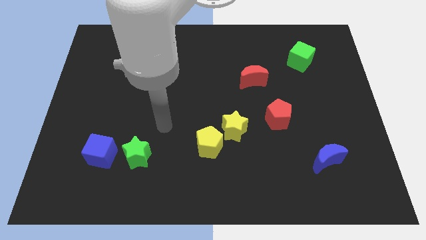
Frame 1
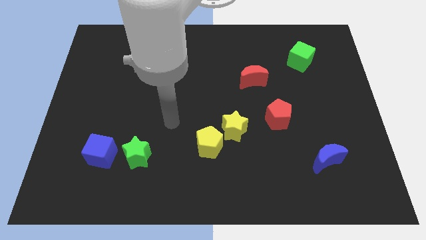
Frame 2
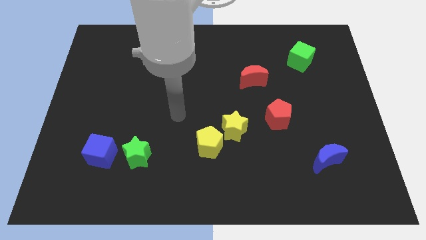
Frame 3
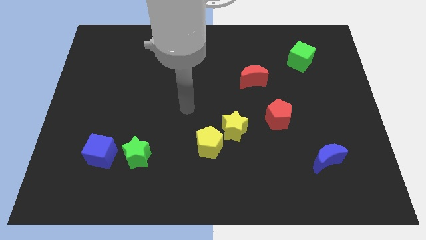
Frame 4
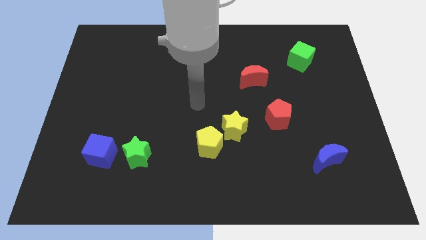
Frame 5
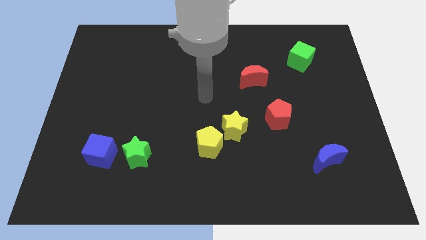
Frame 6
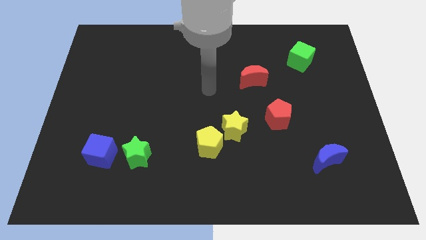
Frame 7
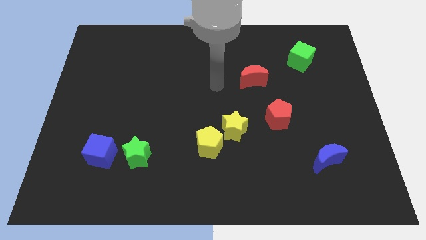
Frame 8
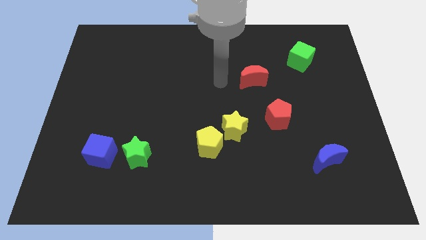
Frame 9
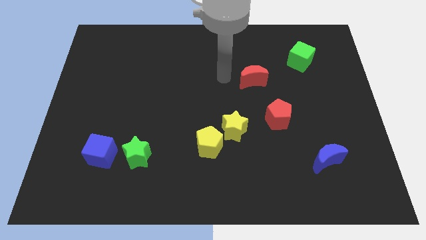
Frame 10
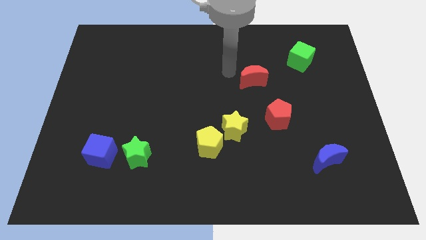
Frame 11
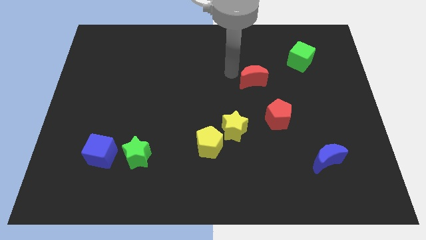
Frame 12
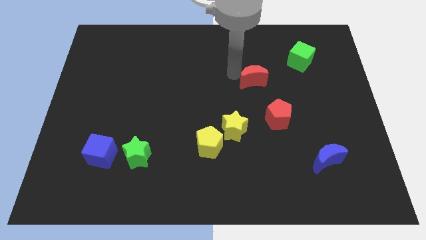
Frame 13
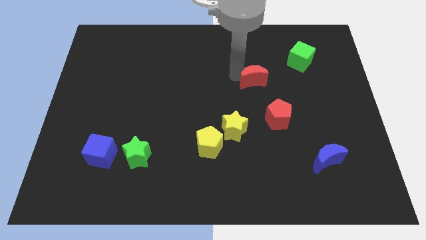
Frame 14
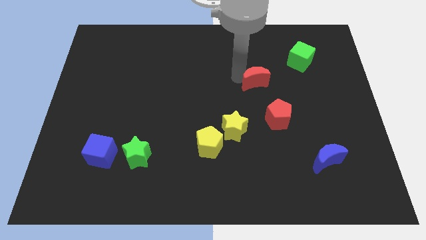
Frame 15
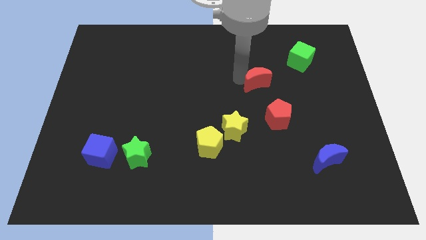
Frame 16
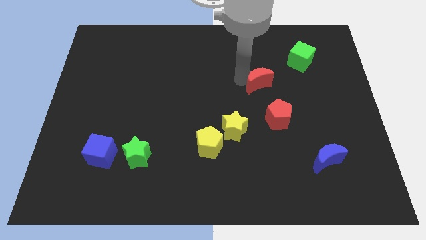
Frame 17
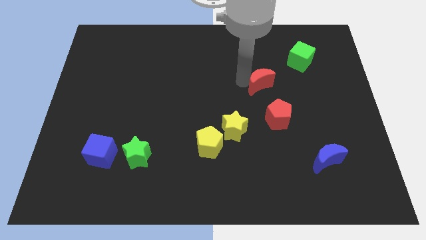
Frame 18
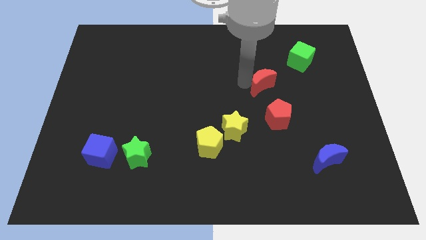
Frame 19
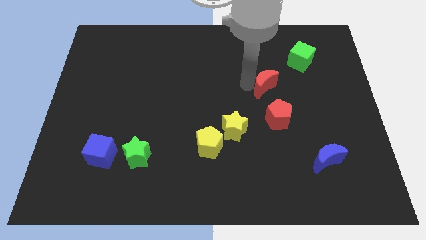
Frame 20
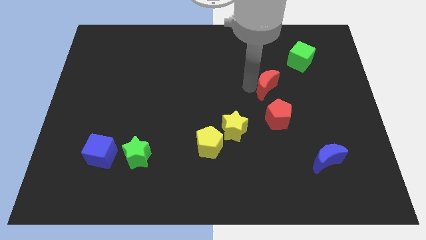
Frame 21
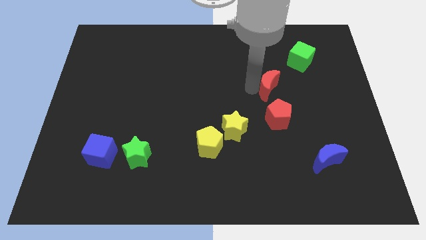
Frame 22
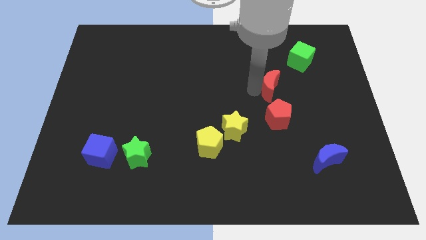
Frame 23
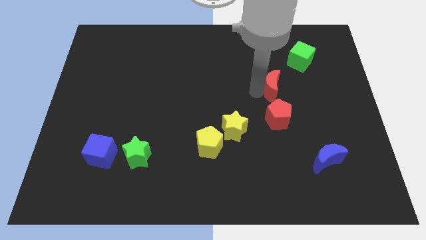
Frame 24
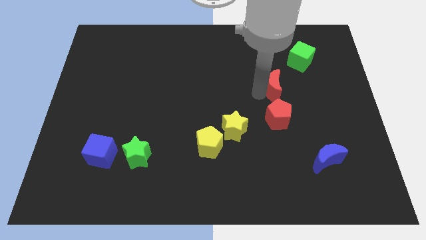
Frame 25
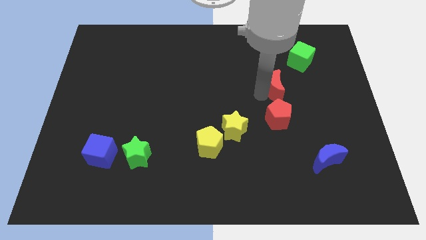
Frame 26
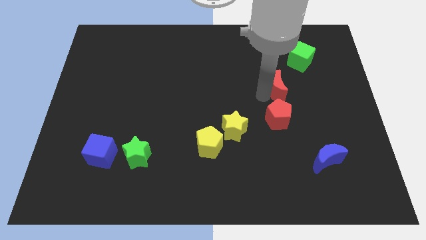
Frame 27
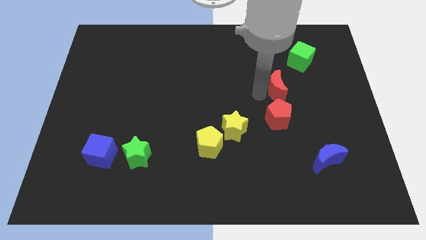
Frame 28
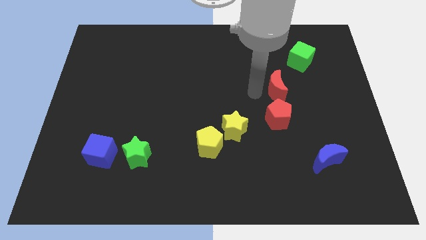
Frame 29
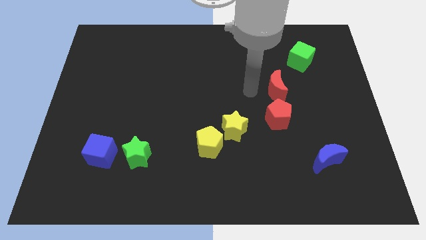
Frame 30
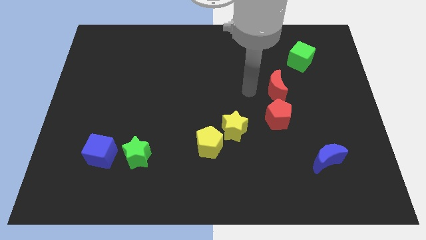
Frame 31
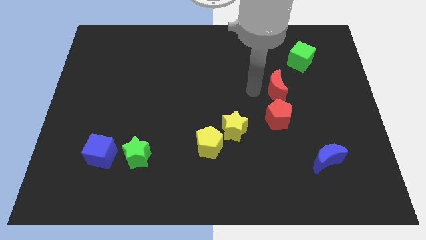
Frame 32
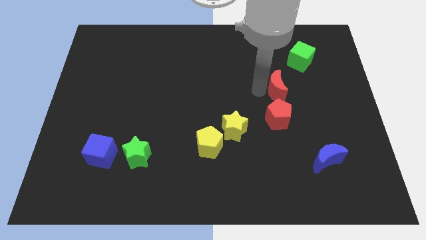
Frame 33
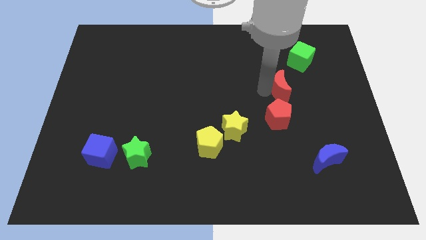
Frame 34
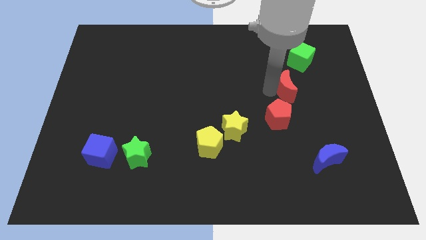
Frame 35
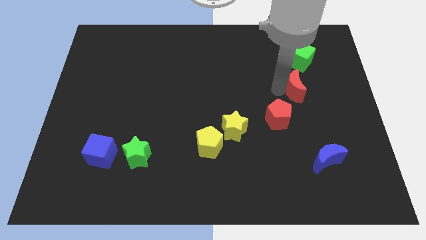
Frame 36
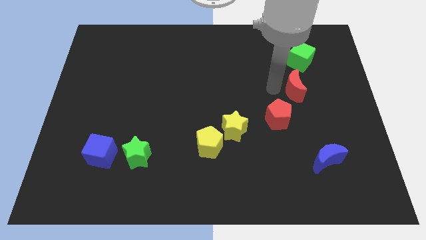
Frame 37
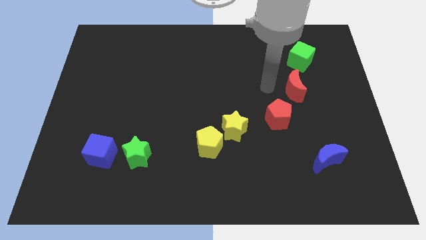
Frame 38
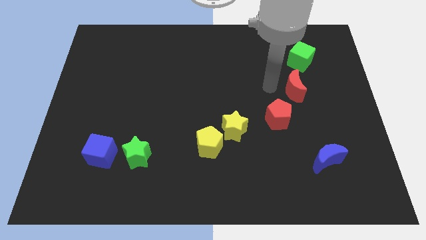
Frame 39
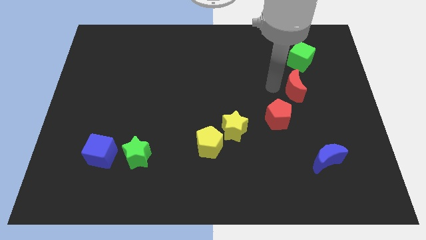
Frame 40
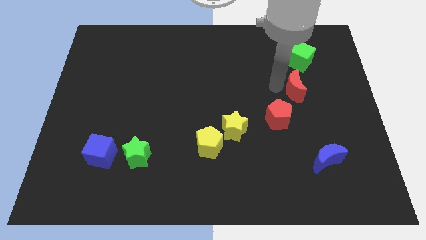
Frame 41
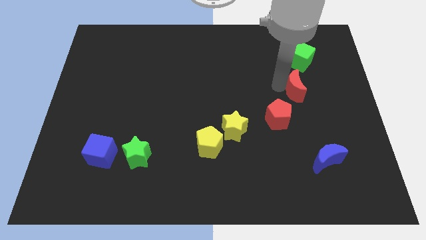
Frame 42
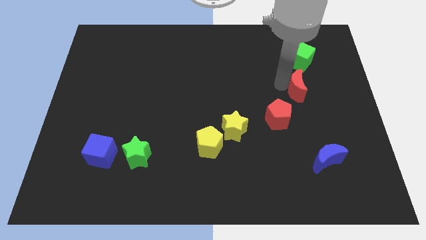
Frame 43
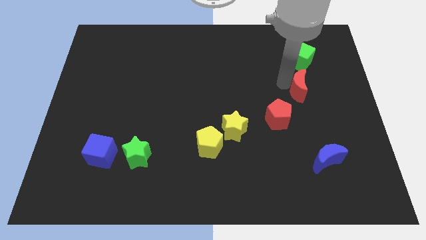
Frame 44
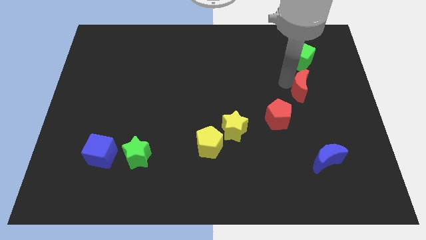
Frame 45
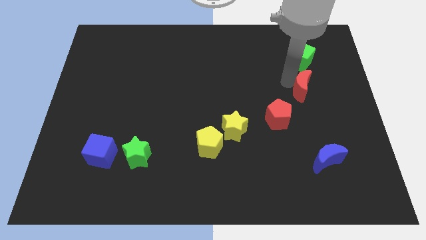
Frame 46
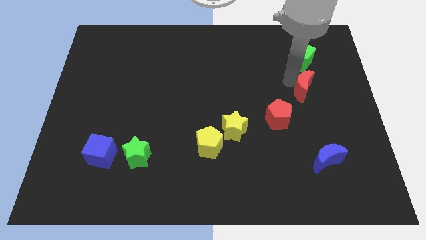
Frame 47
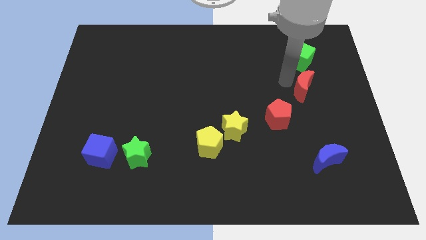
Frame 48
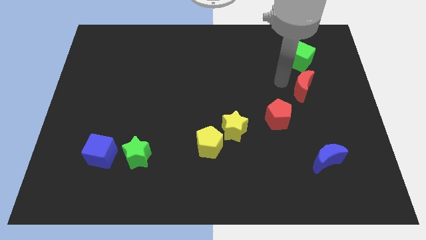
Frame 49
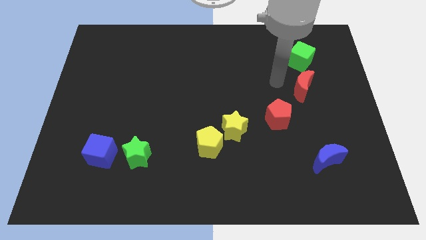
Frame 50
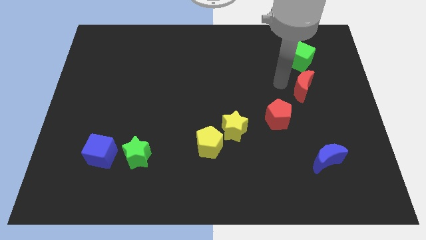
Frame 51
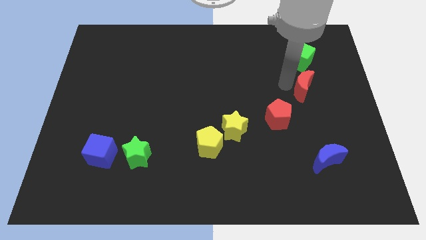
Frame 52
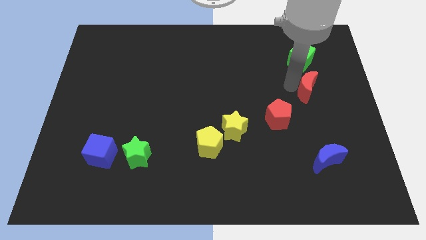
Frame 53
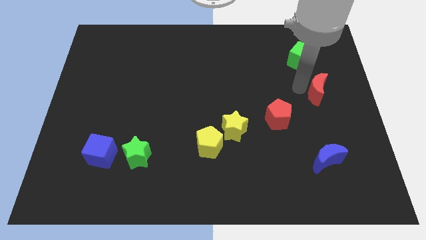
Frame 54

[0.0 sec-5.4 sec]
slide the red moon to the right side

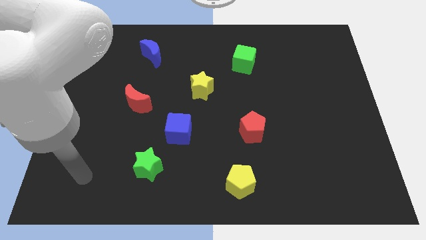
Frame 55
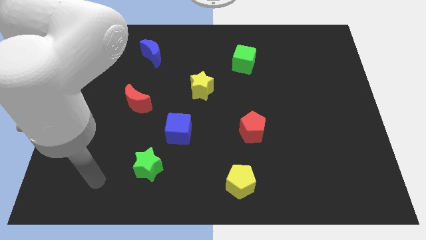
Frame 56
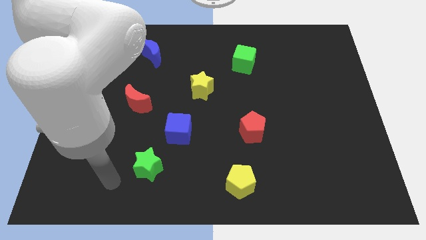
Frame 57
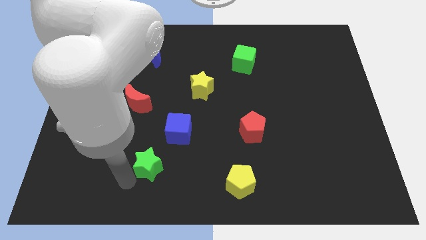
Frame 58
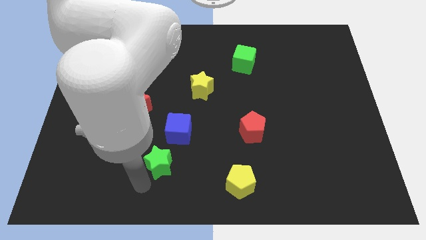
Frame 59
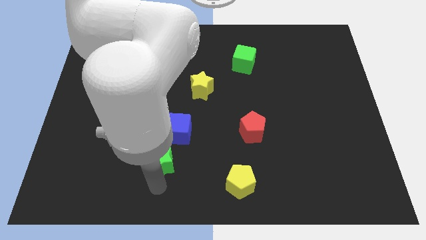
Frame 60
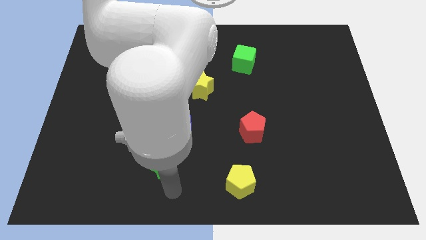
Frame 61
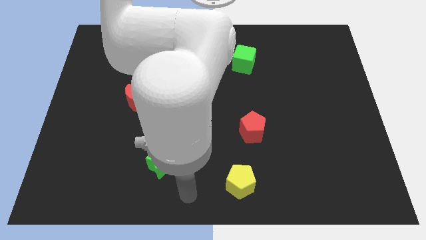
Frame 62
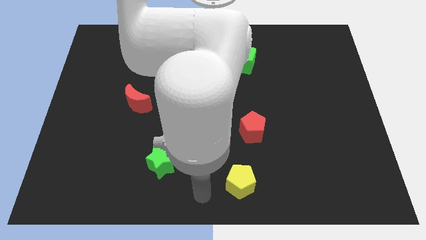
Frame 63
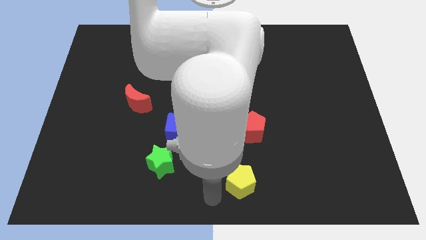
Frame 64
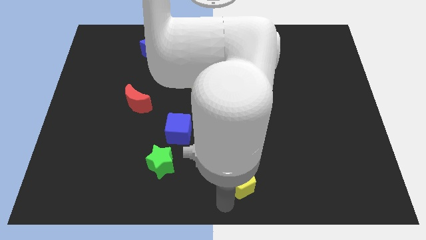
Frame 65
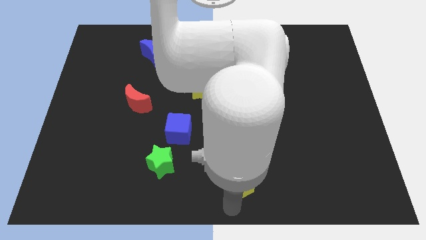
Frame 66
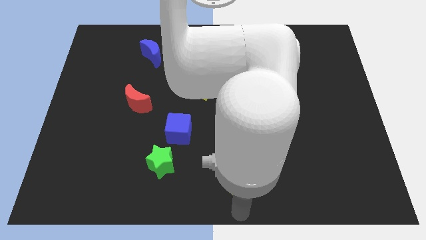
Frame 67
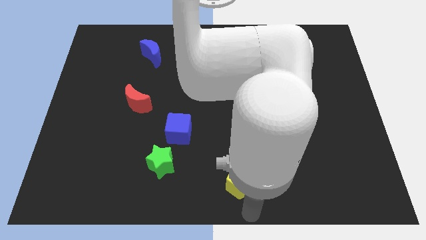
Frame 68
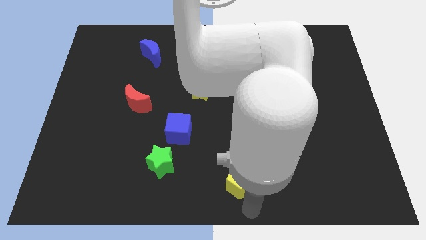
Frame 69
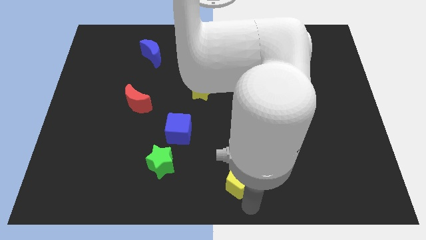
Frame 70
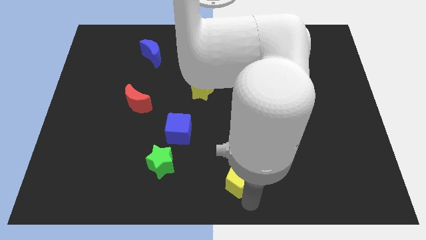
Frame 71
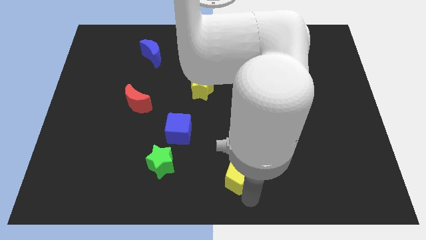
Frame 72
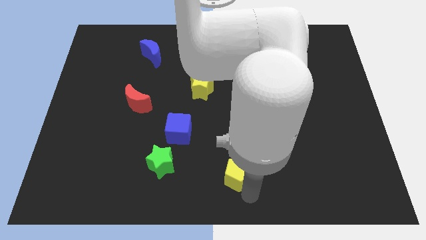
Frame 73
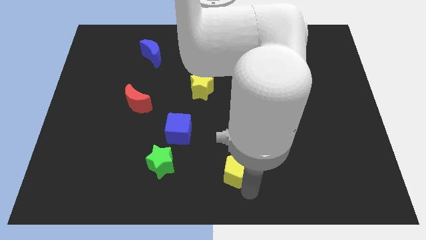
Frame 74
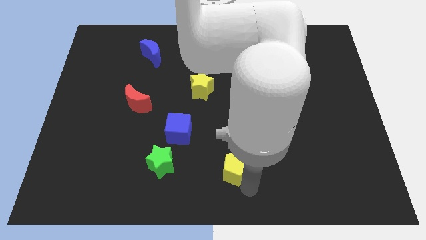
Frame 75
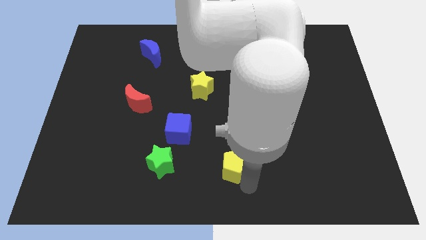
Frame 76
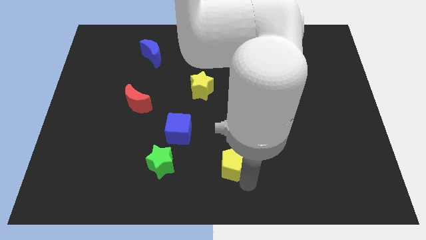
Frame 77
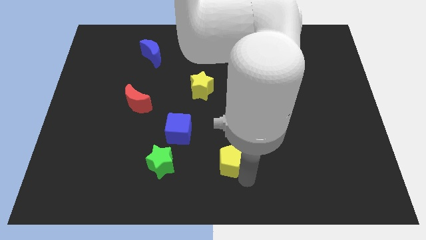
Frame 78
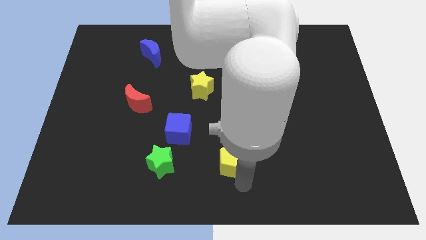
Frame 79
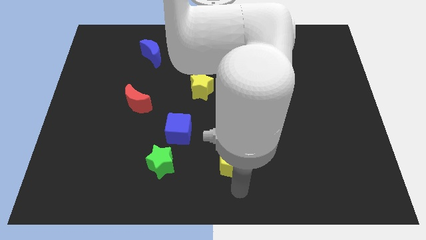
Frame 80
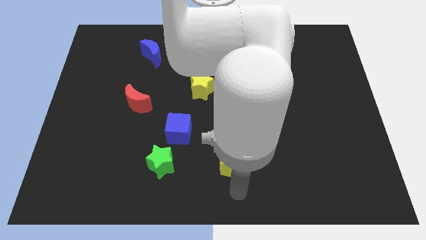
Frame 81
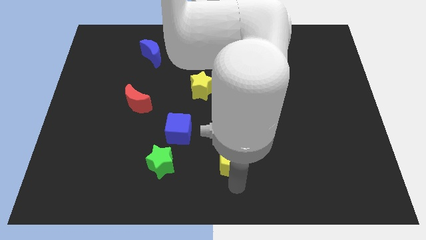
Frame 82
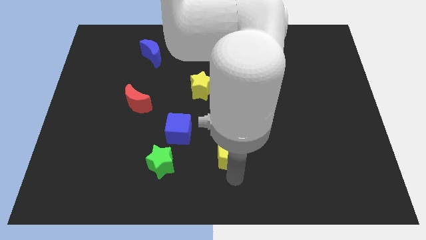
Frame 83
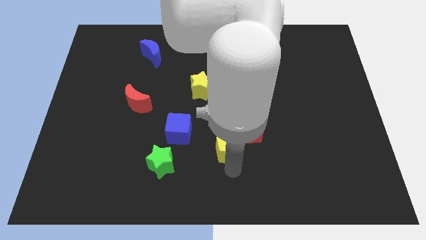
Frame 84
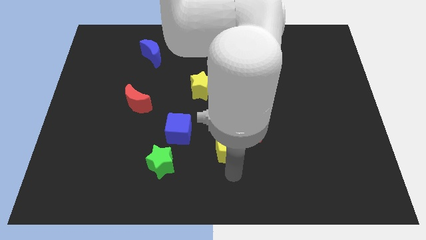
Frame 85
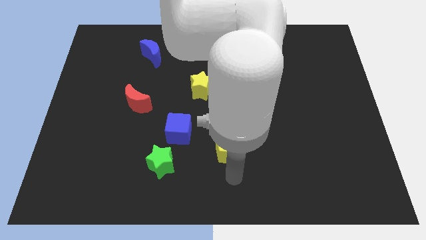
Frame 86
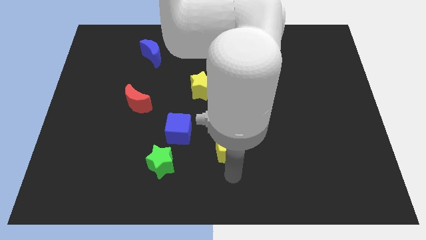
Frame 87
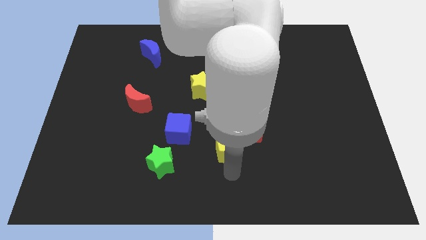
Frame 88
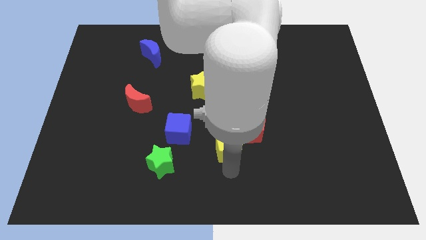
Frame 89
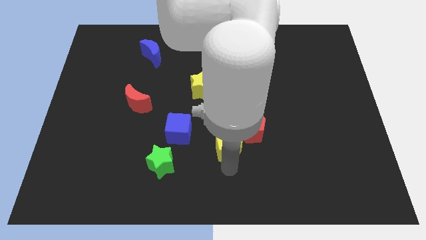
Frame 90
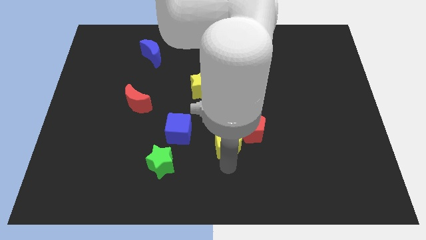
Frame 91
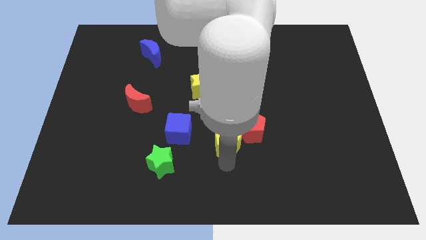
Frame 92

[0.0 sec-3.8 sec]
put the yellow pentagon to the middle of the board
